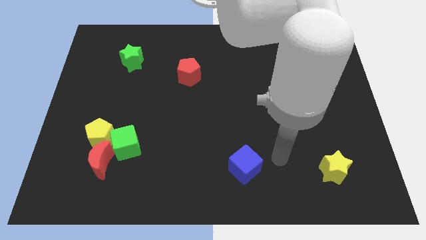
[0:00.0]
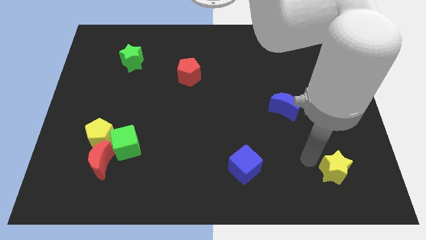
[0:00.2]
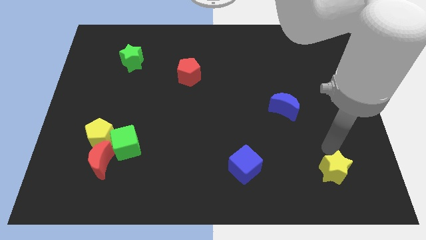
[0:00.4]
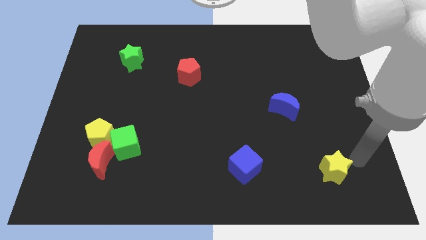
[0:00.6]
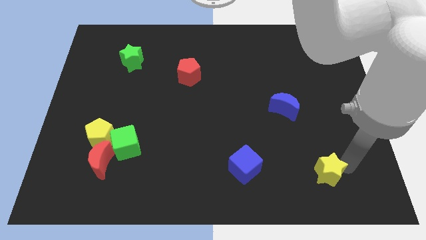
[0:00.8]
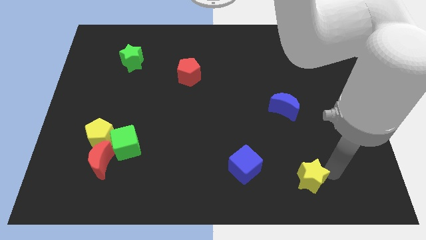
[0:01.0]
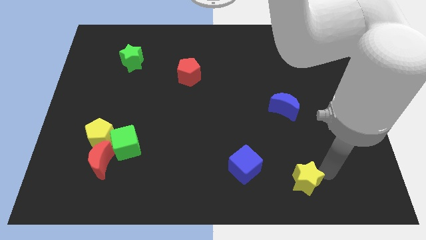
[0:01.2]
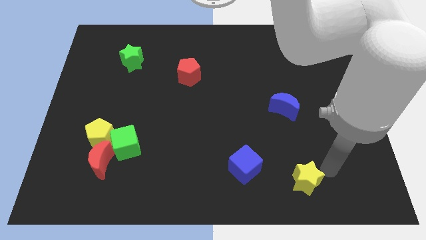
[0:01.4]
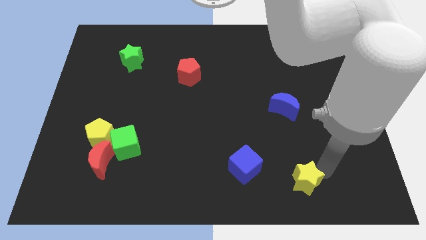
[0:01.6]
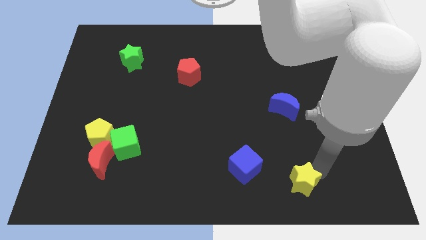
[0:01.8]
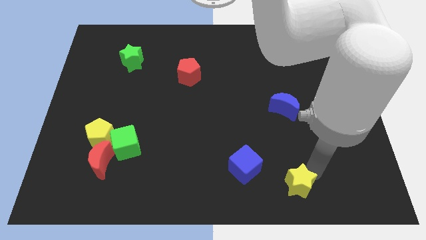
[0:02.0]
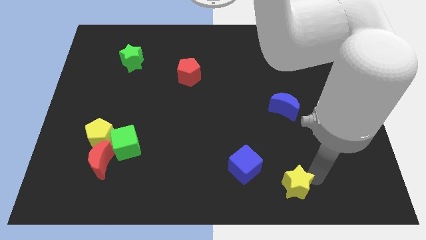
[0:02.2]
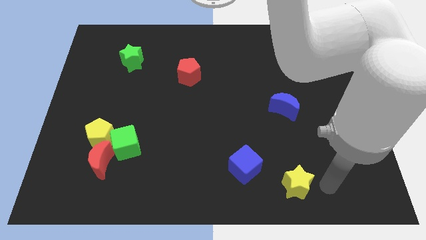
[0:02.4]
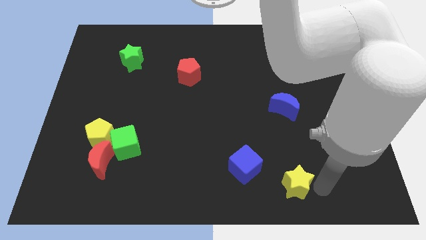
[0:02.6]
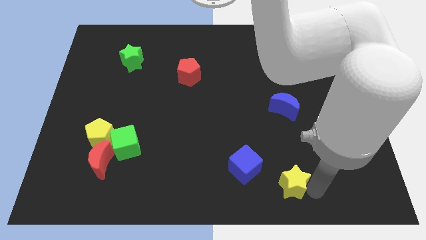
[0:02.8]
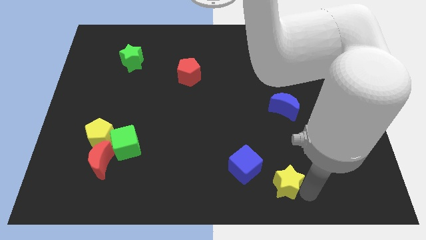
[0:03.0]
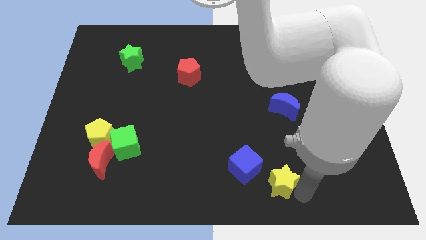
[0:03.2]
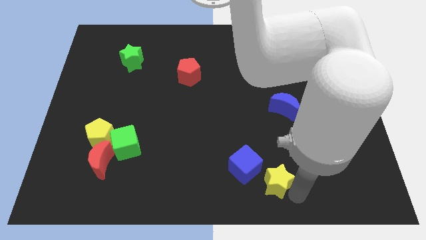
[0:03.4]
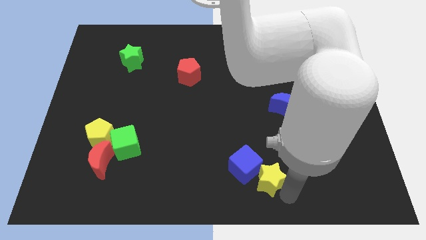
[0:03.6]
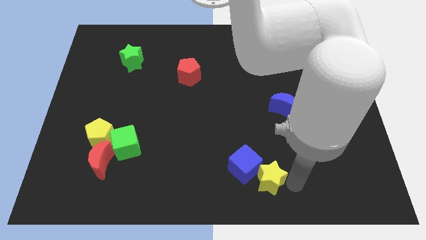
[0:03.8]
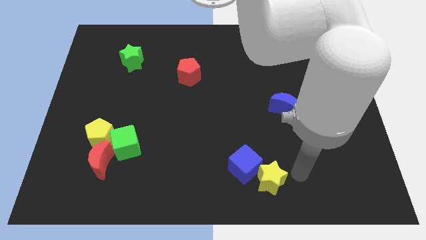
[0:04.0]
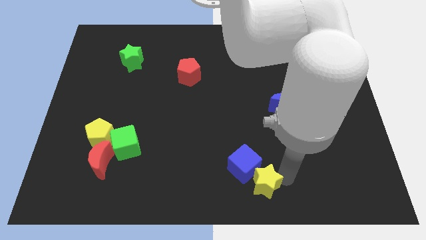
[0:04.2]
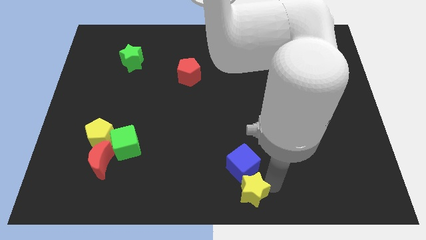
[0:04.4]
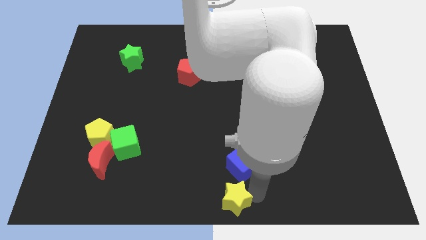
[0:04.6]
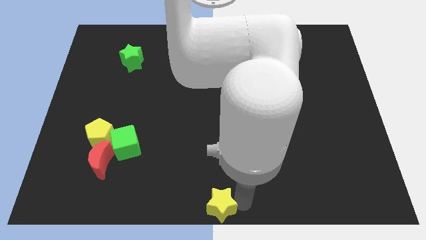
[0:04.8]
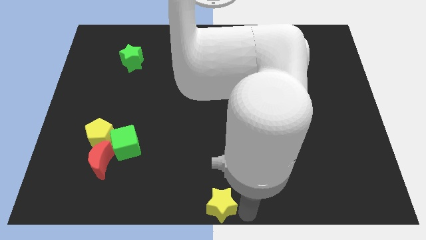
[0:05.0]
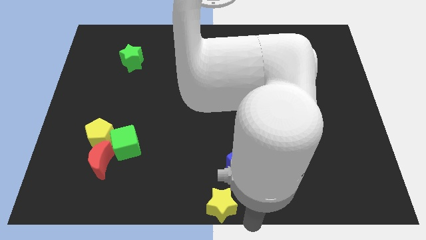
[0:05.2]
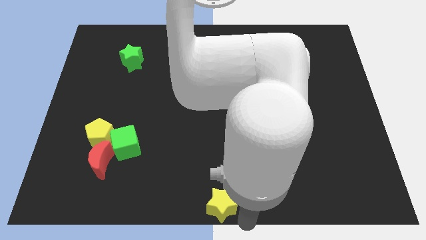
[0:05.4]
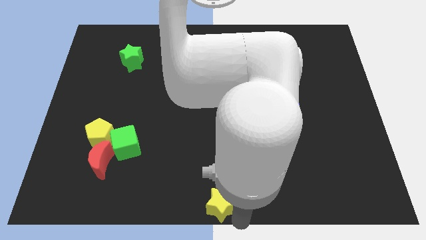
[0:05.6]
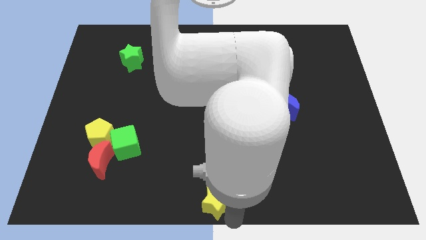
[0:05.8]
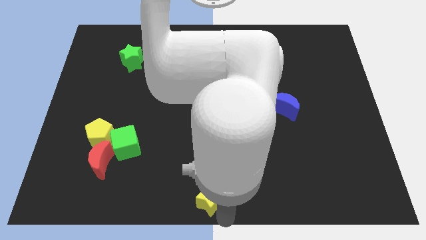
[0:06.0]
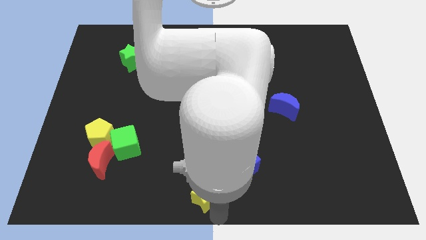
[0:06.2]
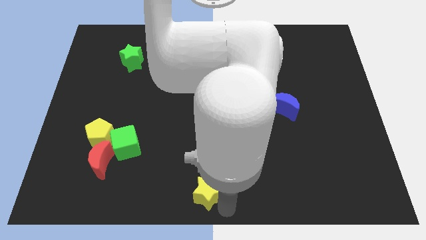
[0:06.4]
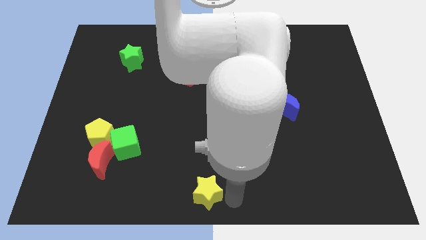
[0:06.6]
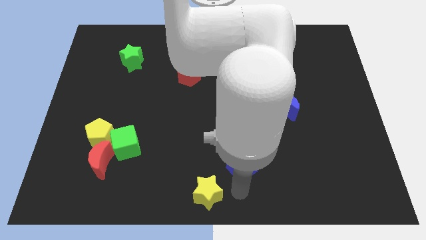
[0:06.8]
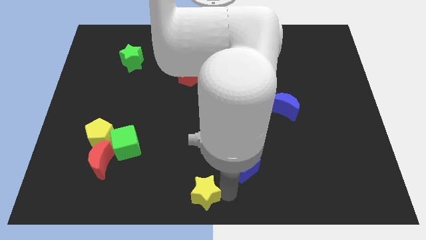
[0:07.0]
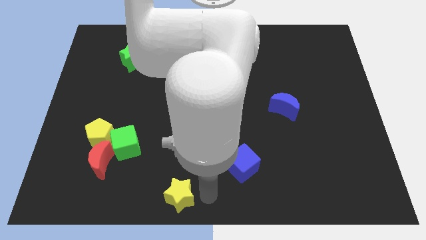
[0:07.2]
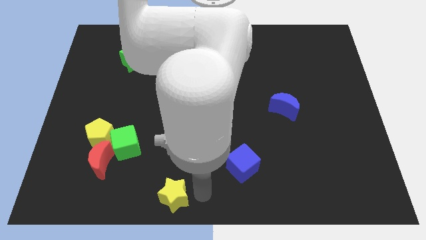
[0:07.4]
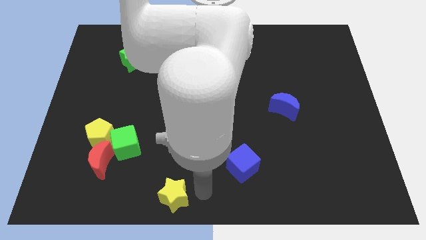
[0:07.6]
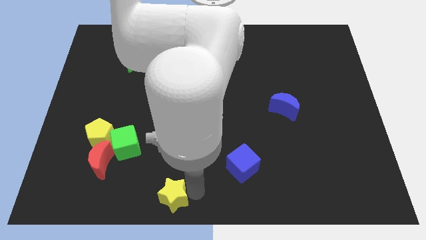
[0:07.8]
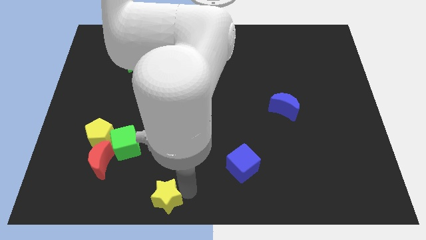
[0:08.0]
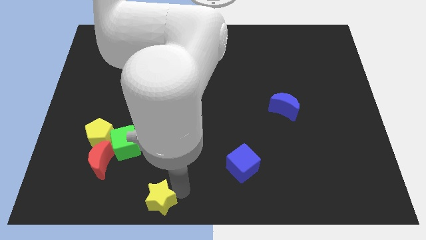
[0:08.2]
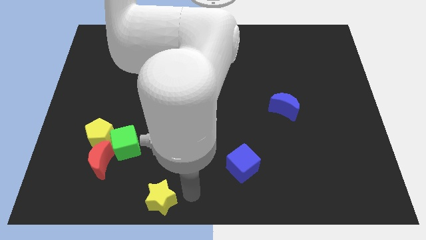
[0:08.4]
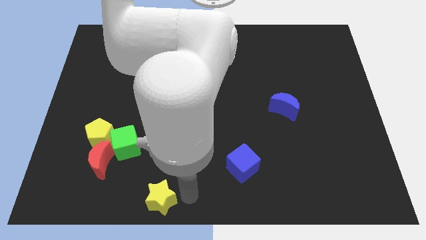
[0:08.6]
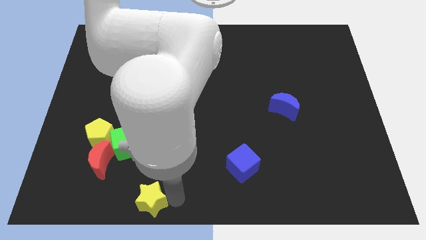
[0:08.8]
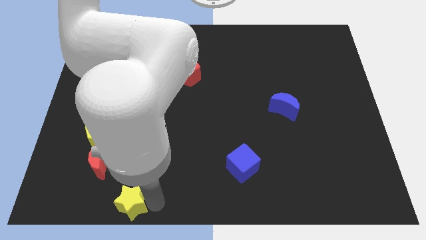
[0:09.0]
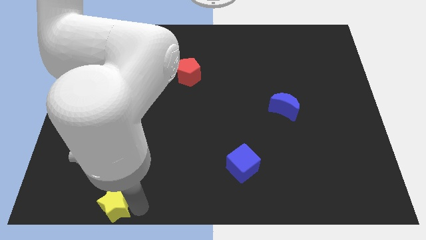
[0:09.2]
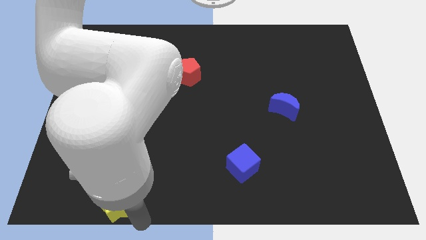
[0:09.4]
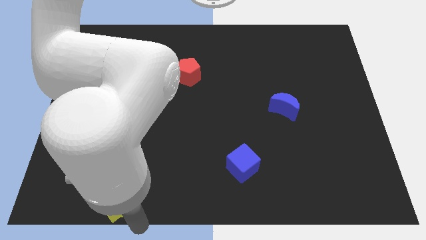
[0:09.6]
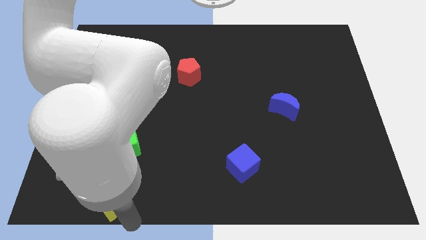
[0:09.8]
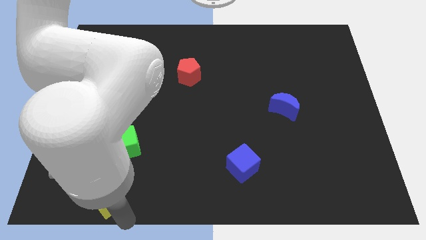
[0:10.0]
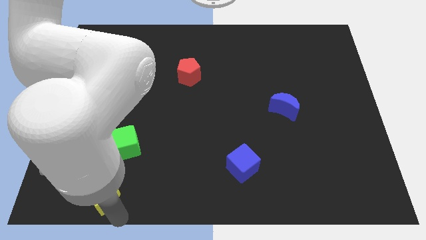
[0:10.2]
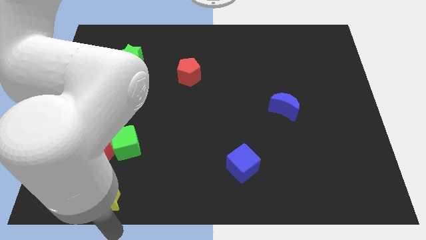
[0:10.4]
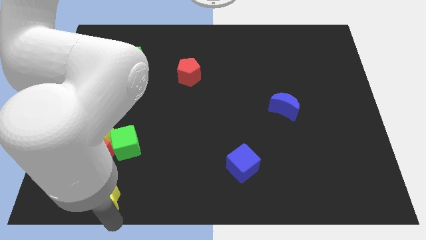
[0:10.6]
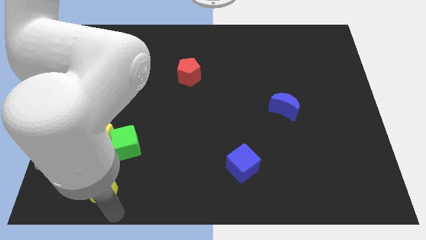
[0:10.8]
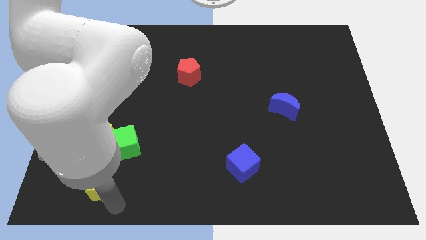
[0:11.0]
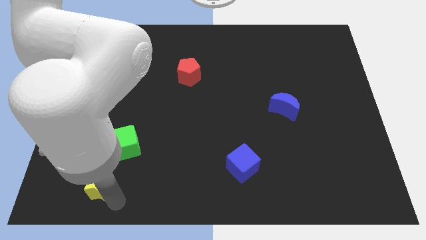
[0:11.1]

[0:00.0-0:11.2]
put the yellow star diagonally down and to the left of the green cube

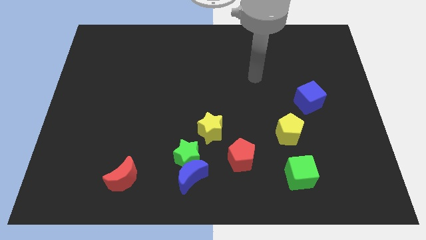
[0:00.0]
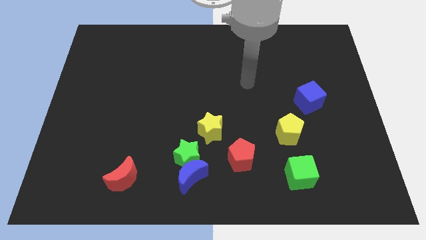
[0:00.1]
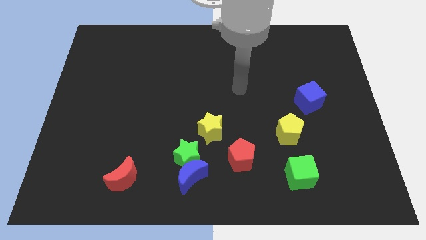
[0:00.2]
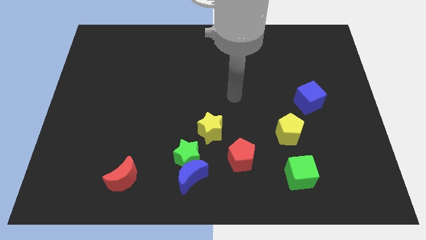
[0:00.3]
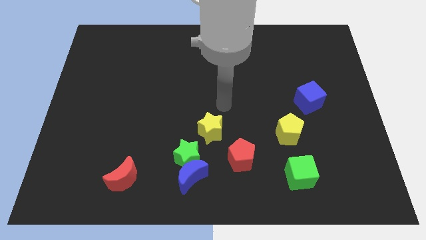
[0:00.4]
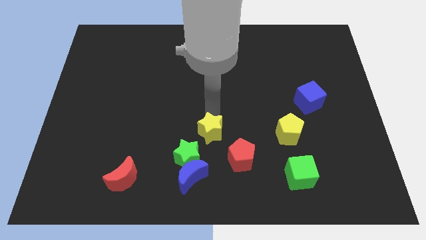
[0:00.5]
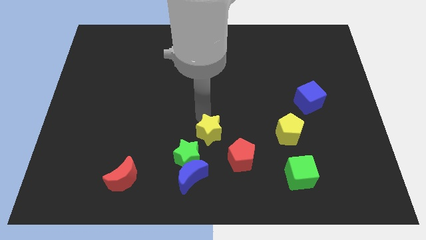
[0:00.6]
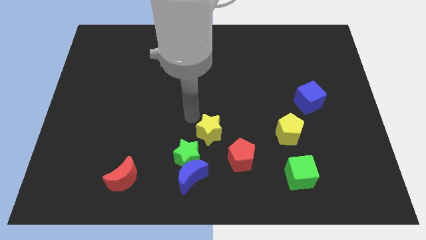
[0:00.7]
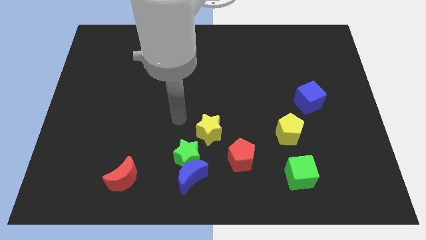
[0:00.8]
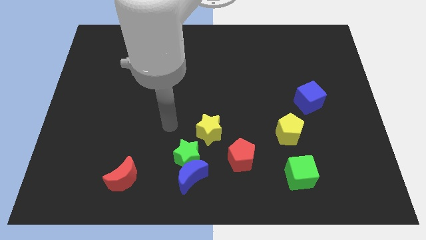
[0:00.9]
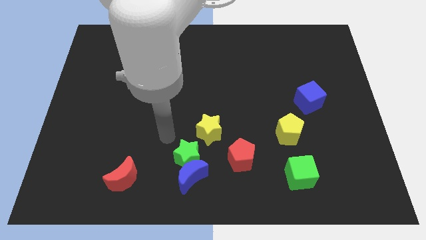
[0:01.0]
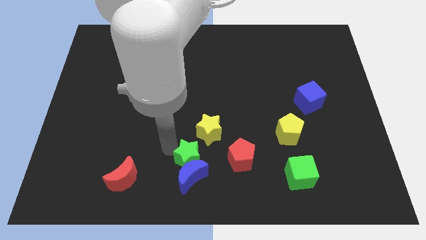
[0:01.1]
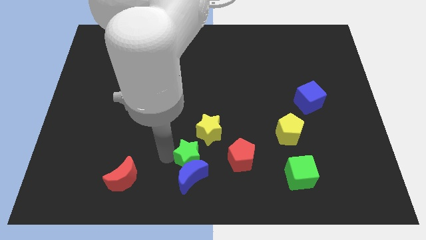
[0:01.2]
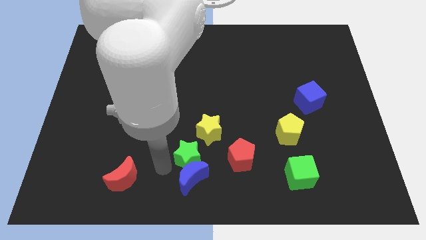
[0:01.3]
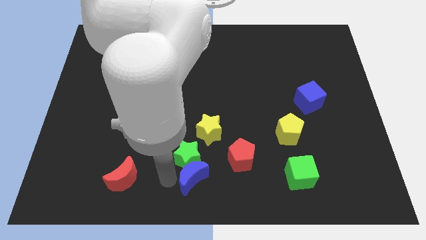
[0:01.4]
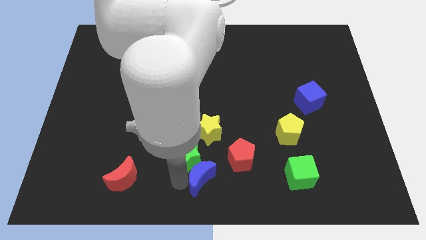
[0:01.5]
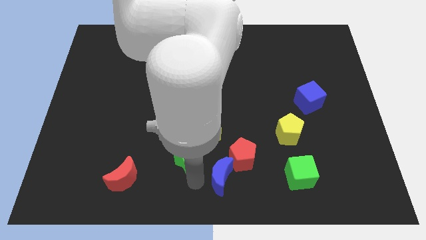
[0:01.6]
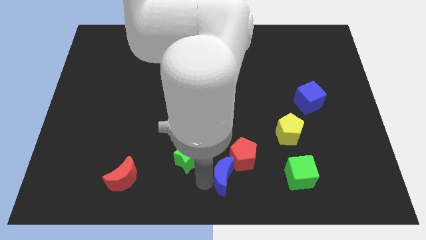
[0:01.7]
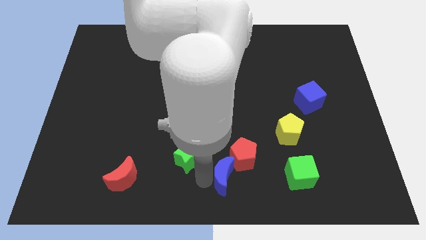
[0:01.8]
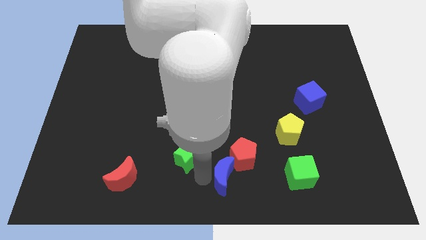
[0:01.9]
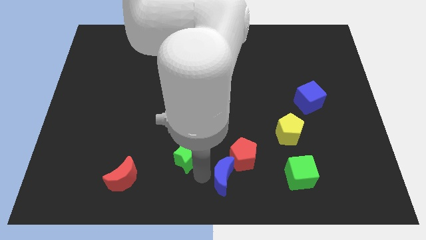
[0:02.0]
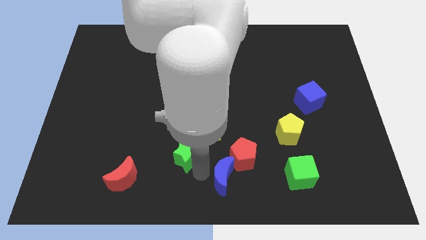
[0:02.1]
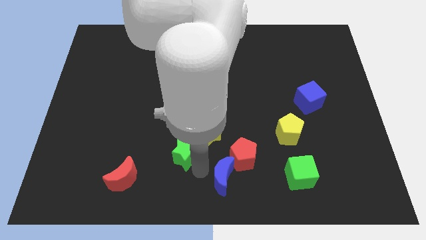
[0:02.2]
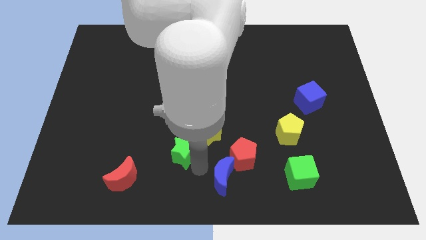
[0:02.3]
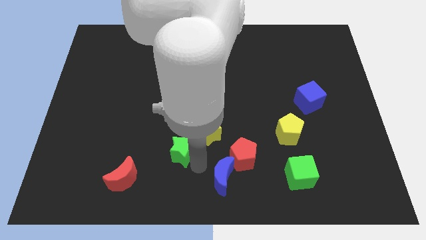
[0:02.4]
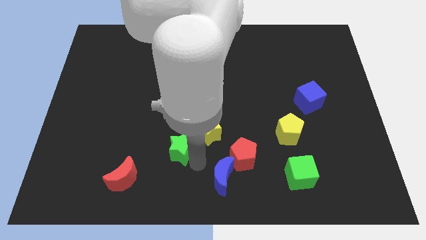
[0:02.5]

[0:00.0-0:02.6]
push the green star to the left of the yellow star
